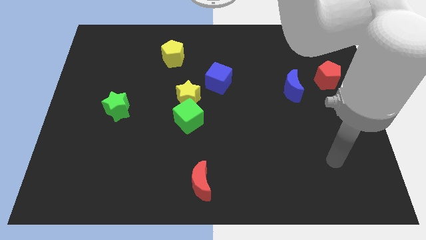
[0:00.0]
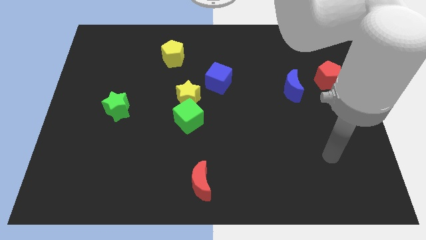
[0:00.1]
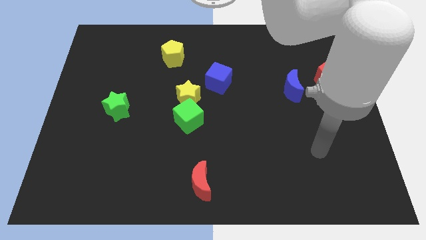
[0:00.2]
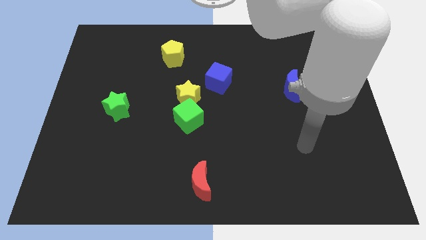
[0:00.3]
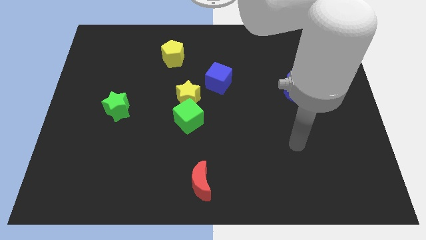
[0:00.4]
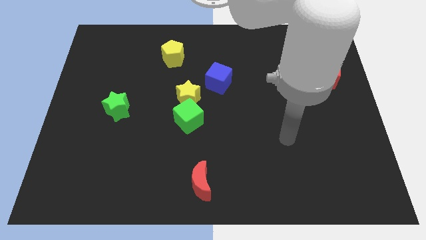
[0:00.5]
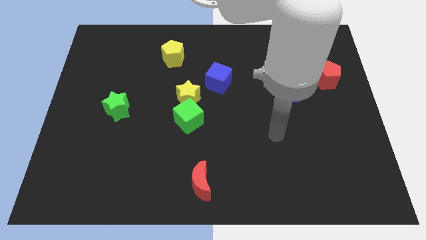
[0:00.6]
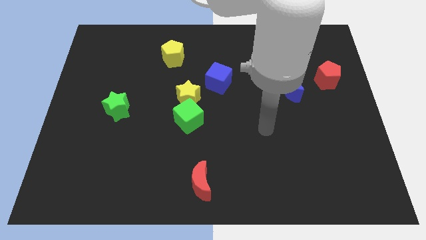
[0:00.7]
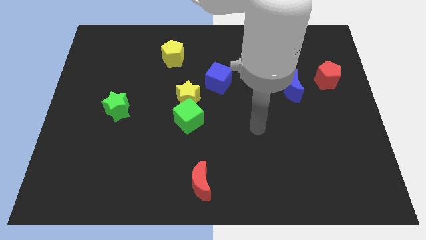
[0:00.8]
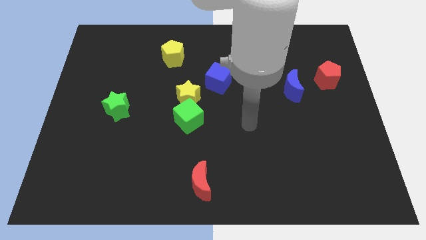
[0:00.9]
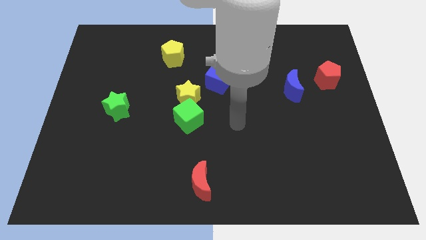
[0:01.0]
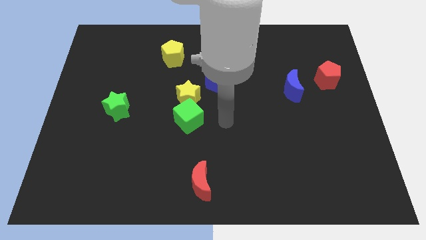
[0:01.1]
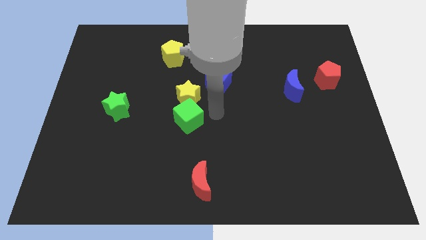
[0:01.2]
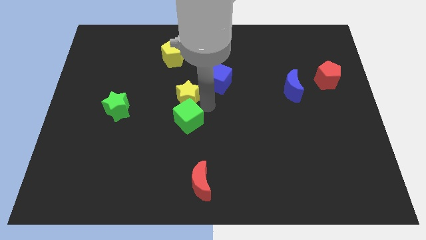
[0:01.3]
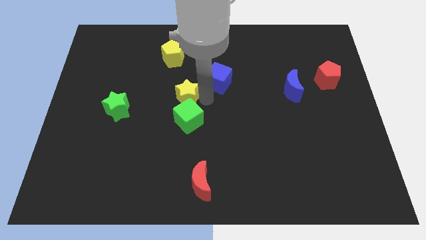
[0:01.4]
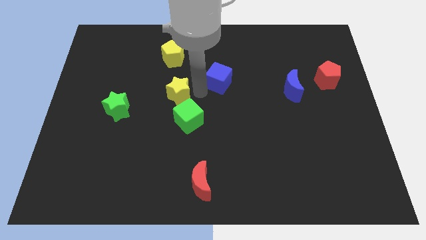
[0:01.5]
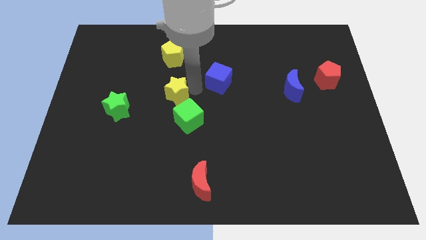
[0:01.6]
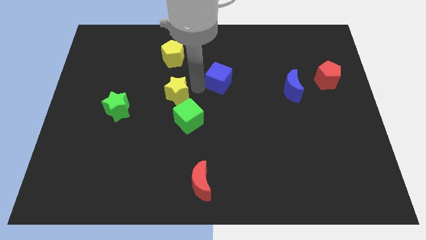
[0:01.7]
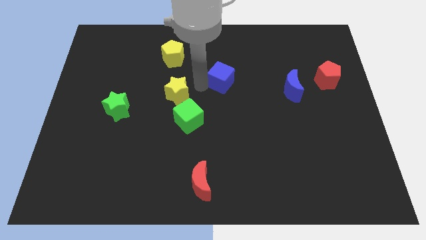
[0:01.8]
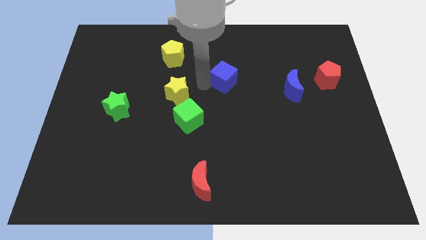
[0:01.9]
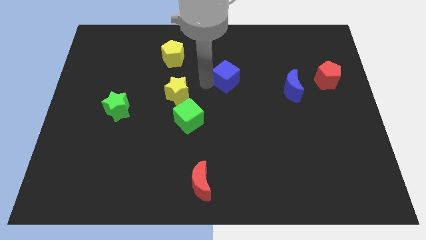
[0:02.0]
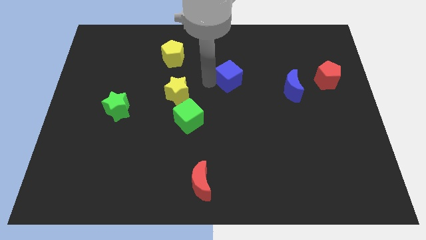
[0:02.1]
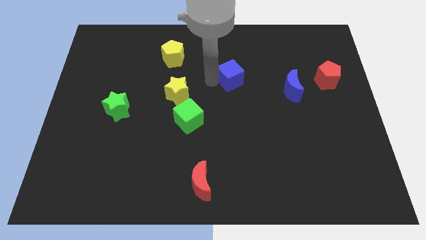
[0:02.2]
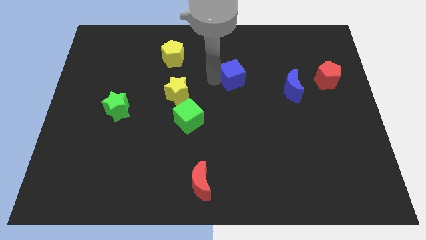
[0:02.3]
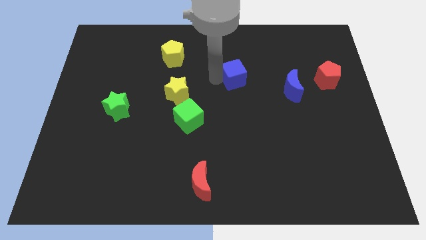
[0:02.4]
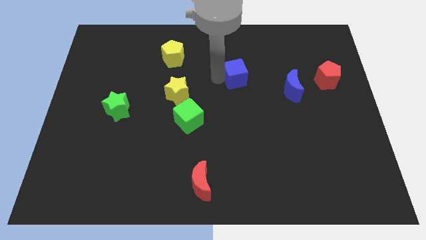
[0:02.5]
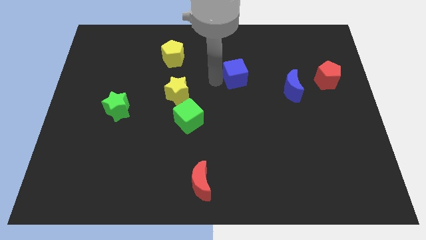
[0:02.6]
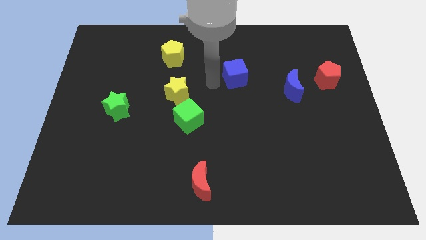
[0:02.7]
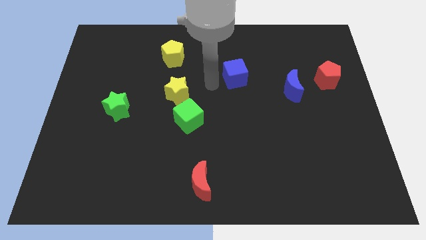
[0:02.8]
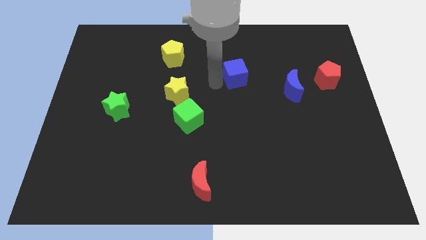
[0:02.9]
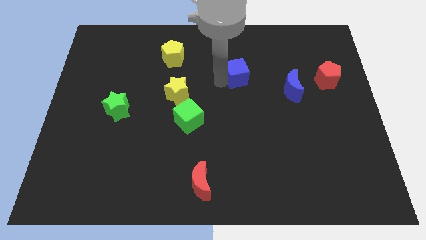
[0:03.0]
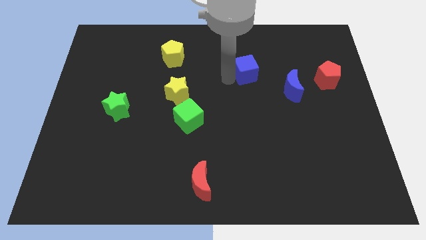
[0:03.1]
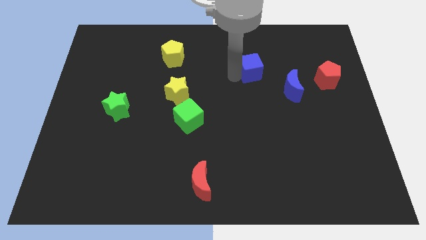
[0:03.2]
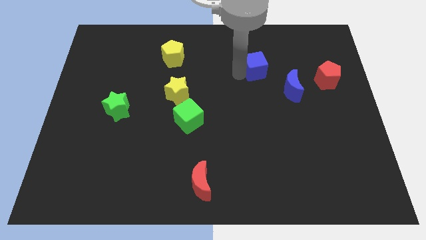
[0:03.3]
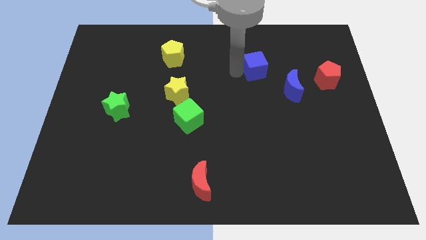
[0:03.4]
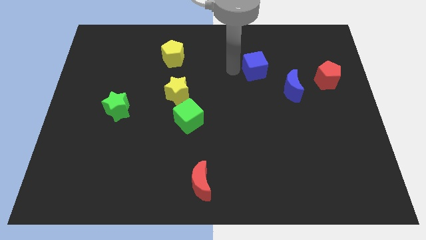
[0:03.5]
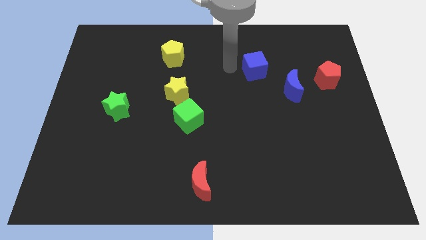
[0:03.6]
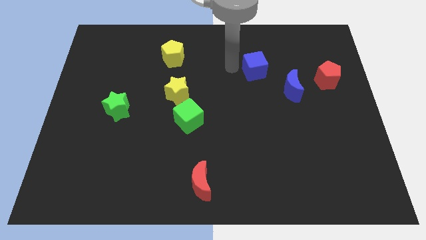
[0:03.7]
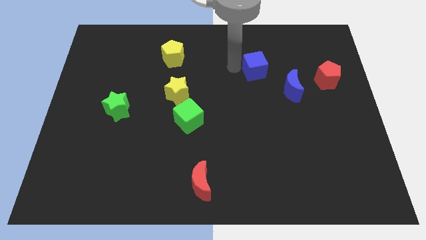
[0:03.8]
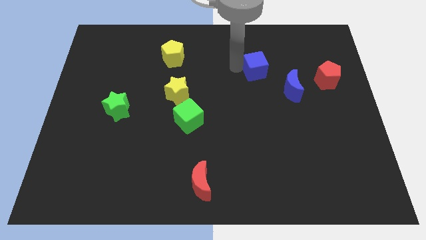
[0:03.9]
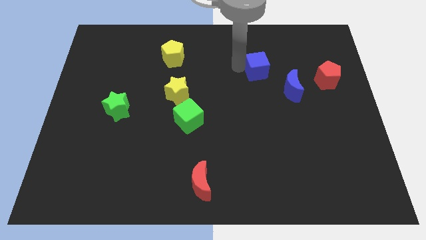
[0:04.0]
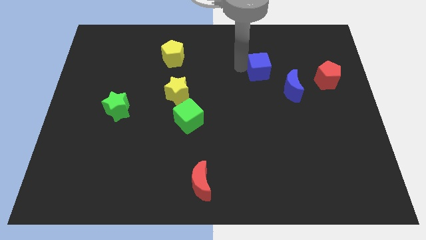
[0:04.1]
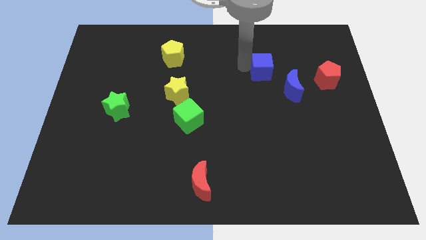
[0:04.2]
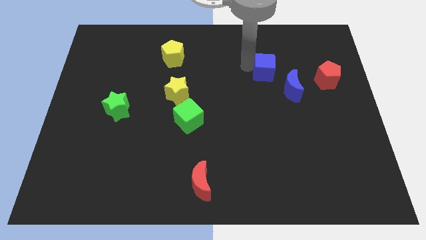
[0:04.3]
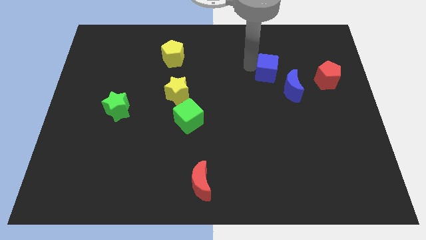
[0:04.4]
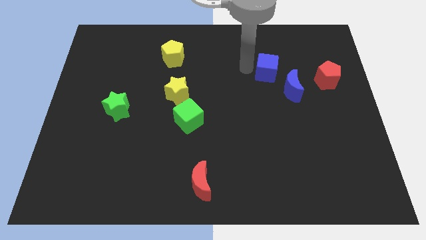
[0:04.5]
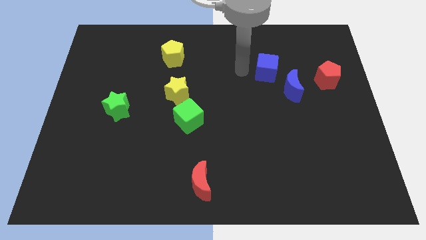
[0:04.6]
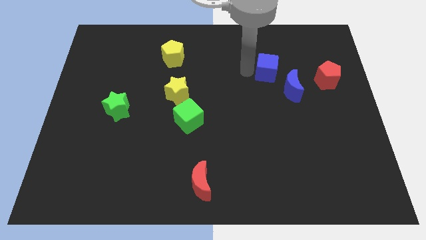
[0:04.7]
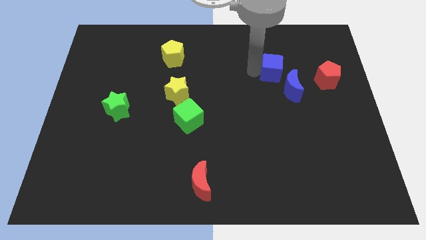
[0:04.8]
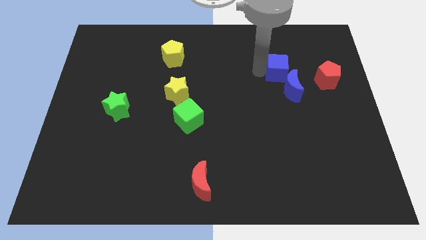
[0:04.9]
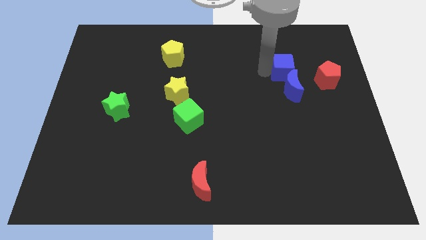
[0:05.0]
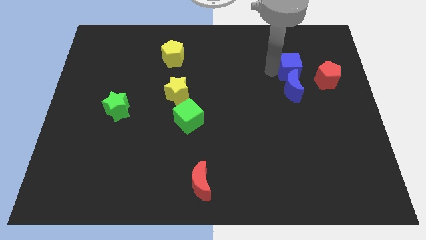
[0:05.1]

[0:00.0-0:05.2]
put the blue cube to the top right of the blue moon

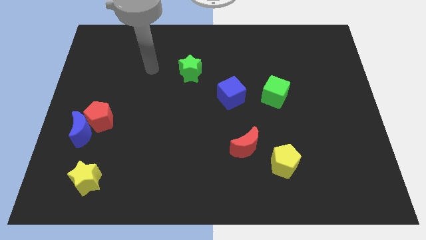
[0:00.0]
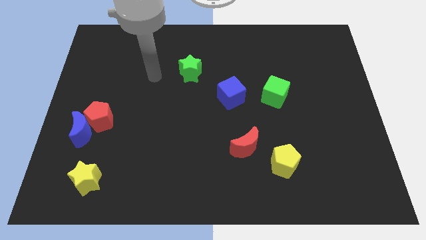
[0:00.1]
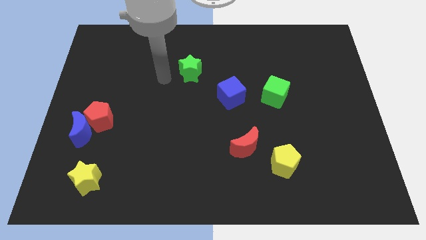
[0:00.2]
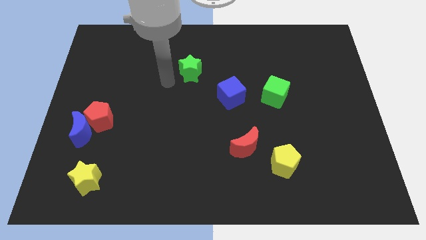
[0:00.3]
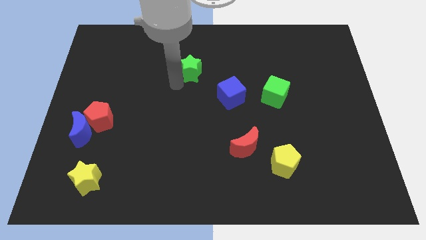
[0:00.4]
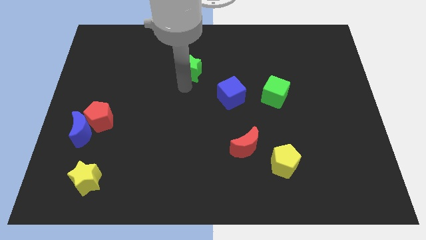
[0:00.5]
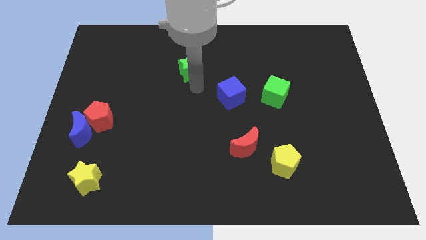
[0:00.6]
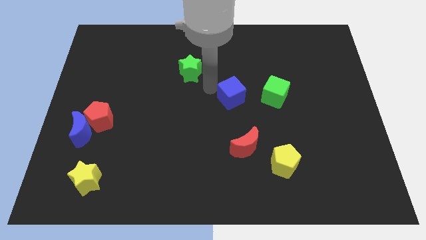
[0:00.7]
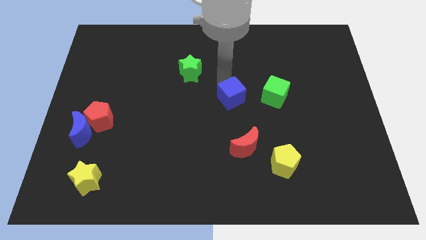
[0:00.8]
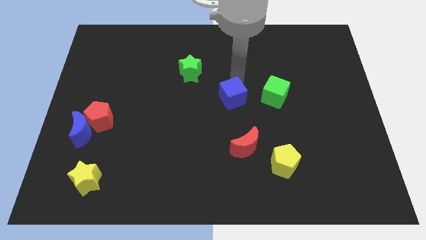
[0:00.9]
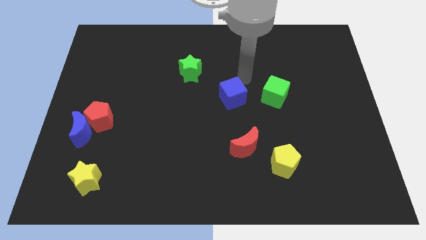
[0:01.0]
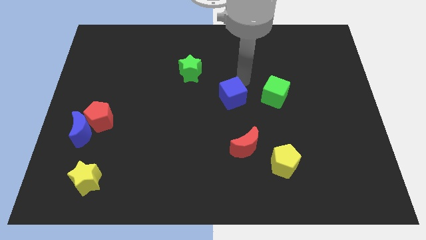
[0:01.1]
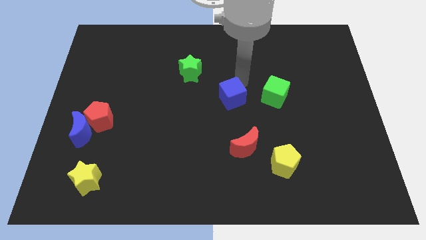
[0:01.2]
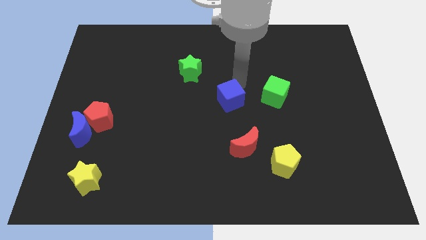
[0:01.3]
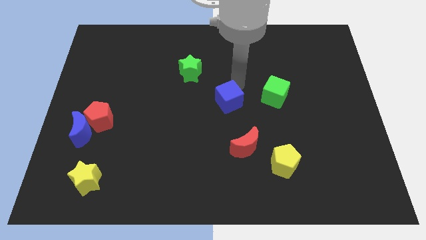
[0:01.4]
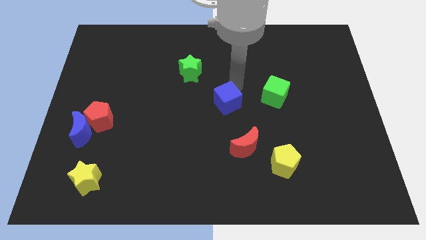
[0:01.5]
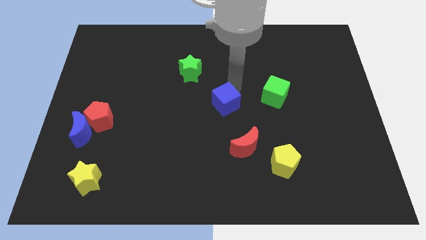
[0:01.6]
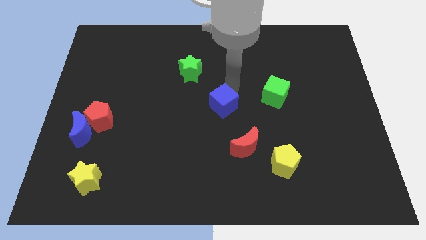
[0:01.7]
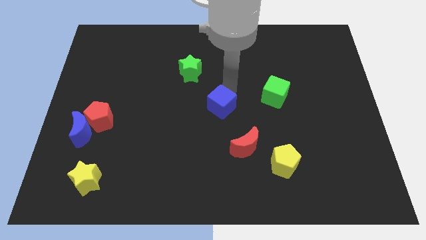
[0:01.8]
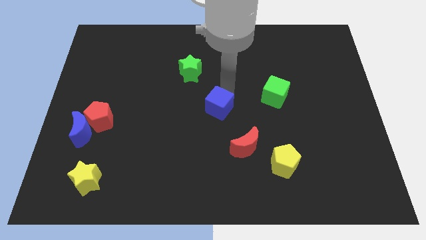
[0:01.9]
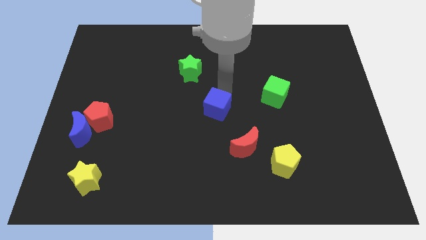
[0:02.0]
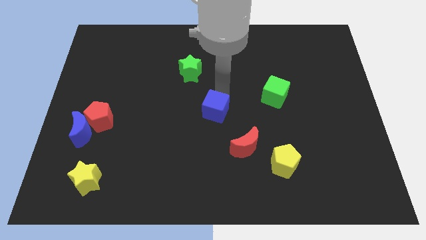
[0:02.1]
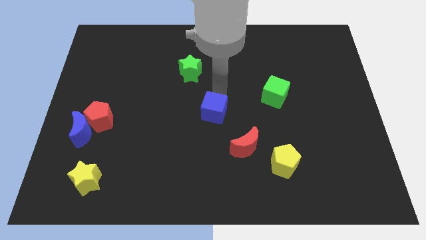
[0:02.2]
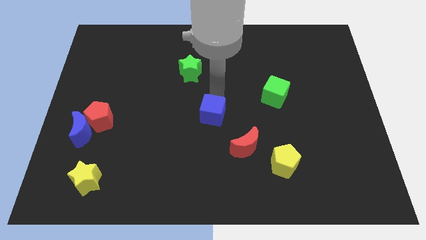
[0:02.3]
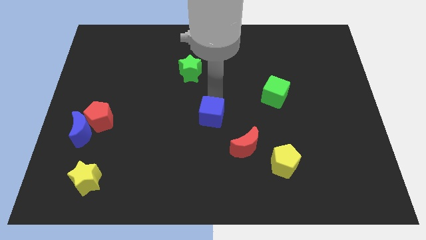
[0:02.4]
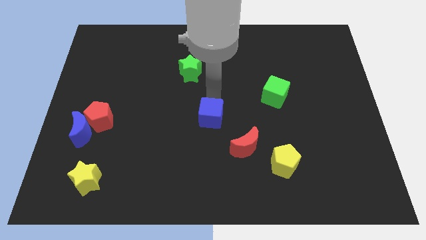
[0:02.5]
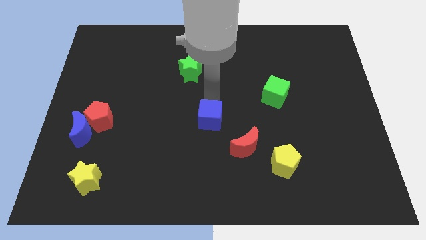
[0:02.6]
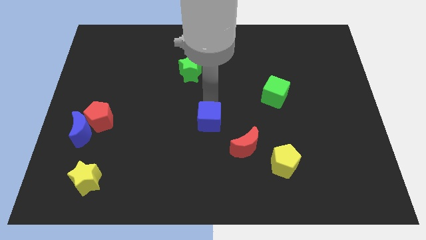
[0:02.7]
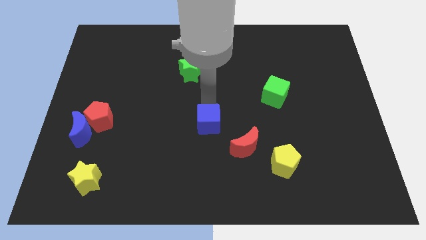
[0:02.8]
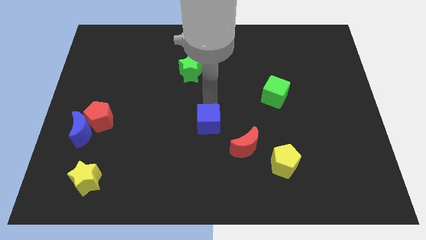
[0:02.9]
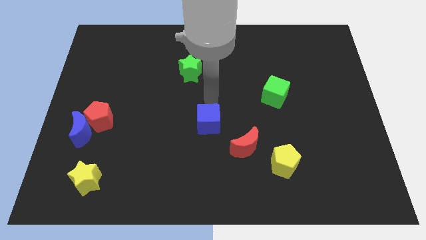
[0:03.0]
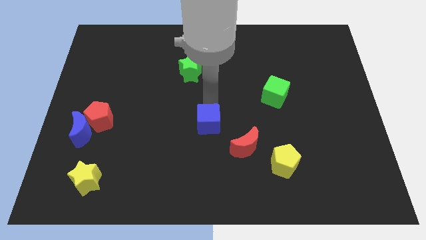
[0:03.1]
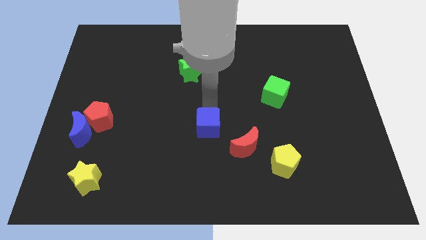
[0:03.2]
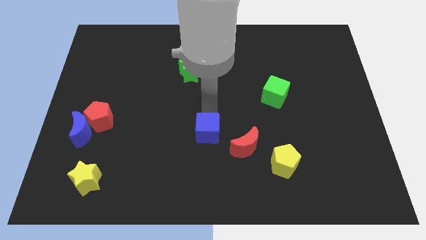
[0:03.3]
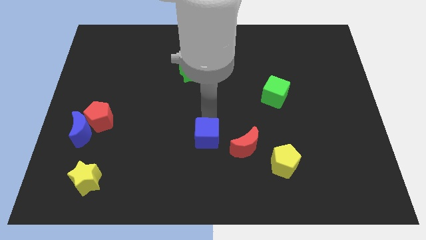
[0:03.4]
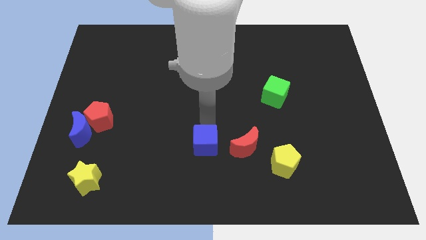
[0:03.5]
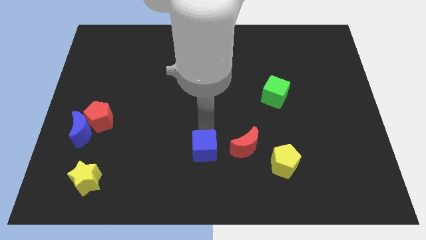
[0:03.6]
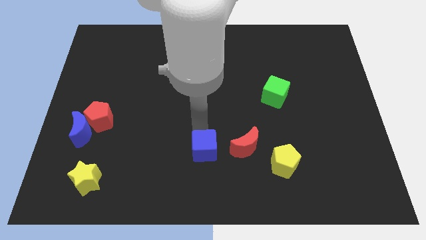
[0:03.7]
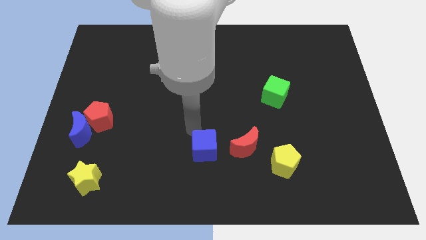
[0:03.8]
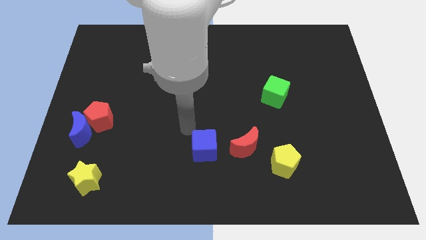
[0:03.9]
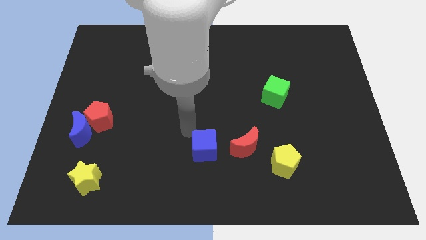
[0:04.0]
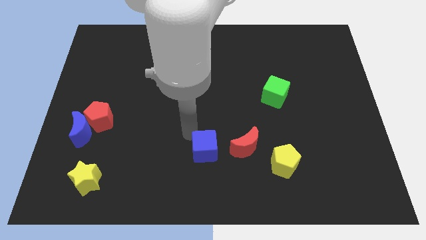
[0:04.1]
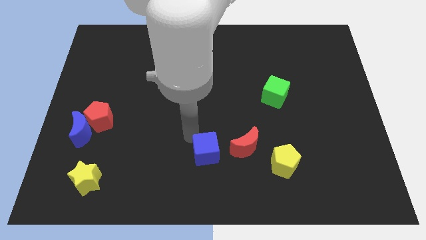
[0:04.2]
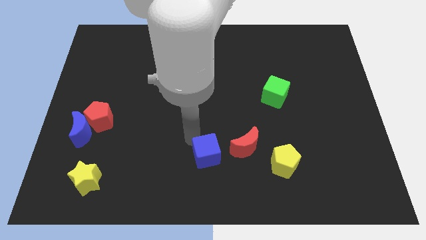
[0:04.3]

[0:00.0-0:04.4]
put the blue cube diagonally down and to the left of the red moon
